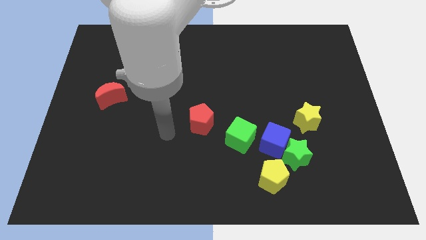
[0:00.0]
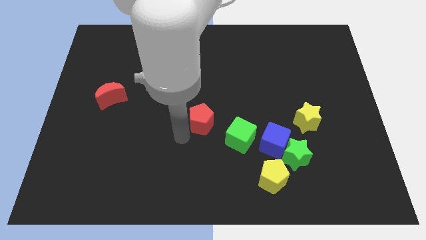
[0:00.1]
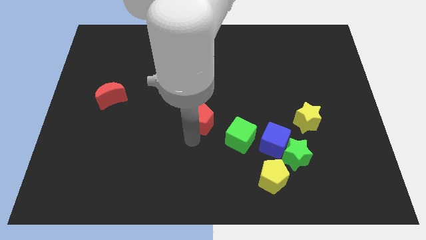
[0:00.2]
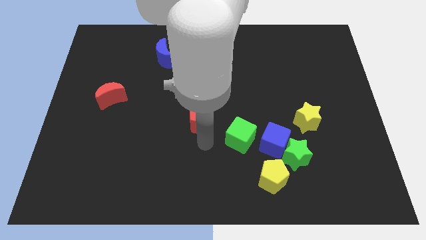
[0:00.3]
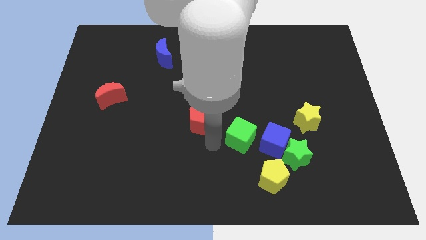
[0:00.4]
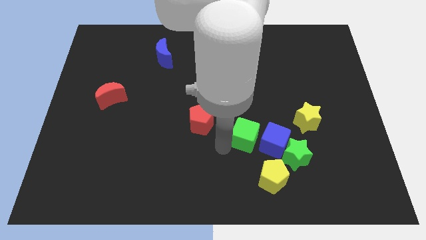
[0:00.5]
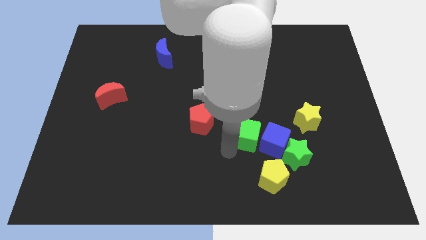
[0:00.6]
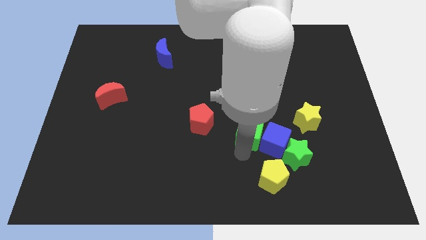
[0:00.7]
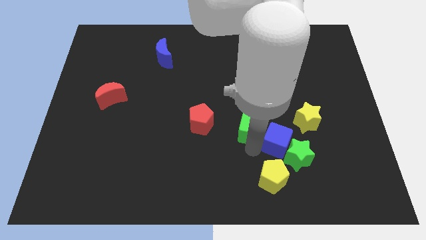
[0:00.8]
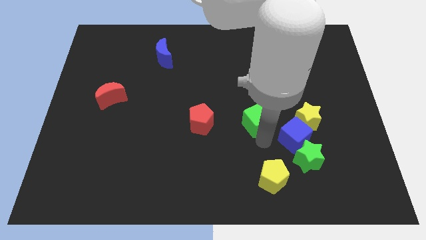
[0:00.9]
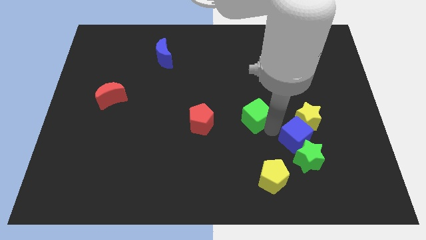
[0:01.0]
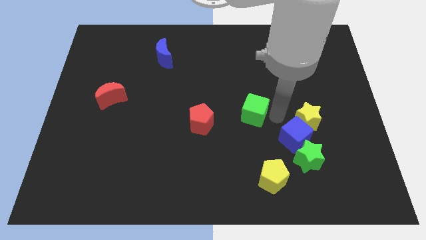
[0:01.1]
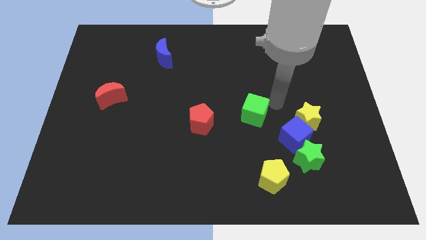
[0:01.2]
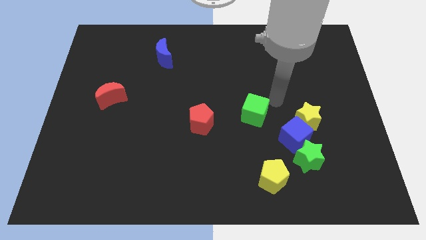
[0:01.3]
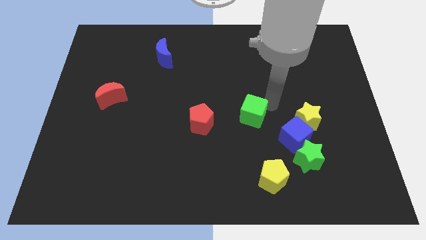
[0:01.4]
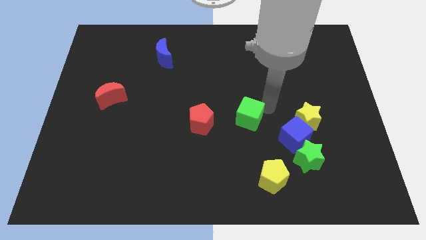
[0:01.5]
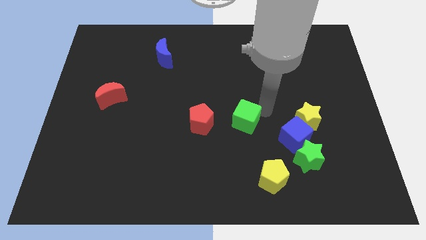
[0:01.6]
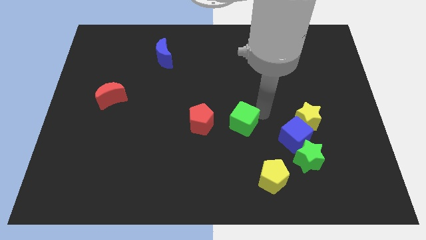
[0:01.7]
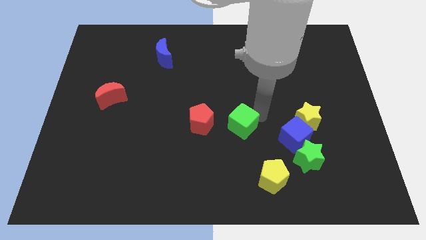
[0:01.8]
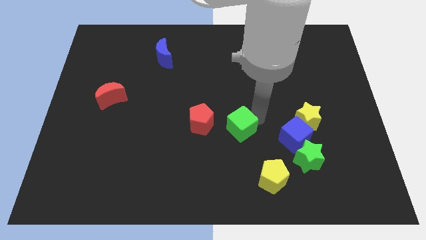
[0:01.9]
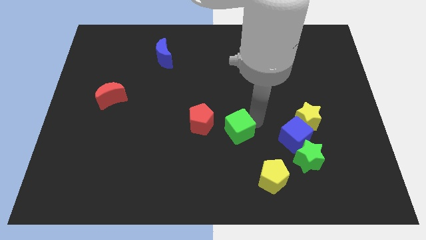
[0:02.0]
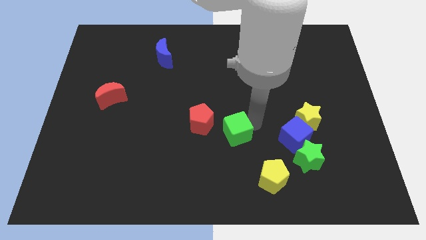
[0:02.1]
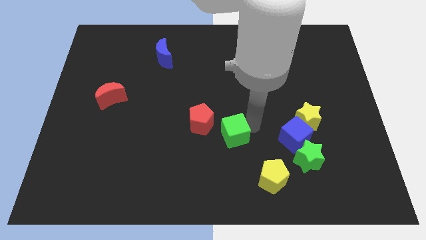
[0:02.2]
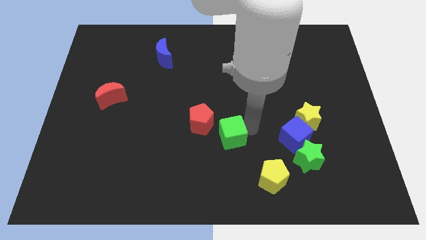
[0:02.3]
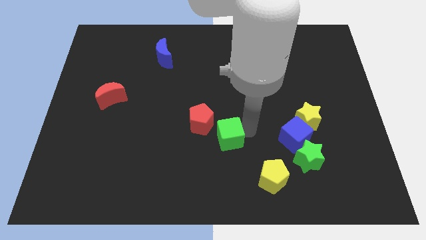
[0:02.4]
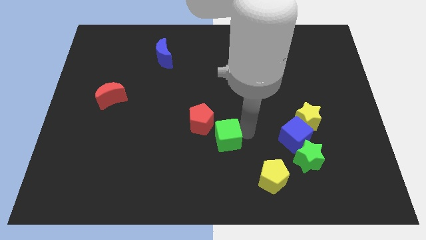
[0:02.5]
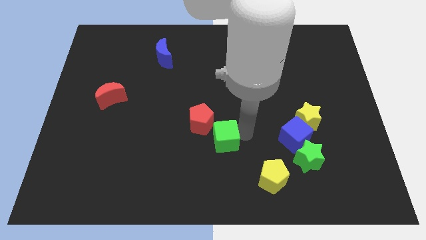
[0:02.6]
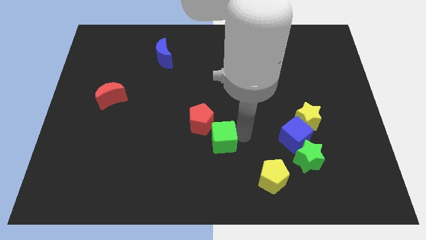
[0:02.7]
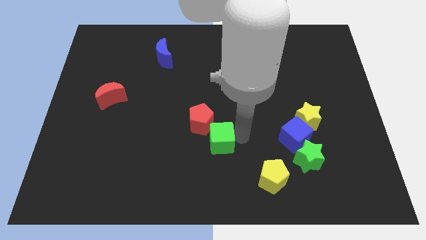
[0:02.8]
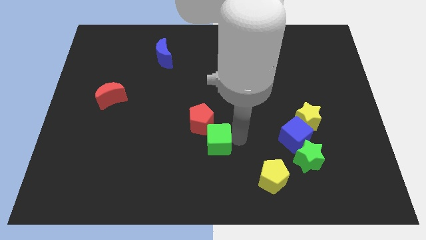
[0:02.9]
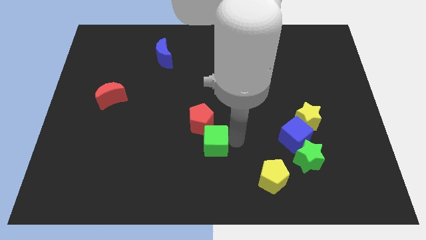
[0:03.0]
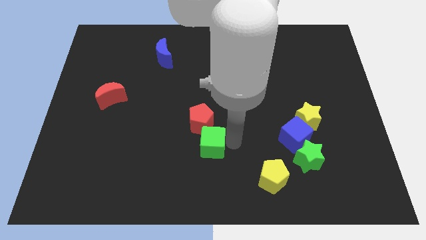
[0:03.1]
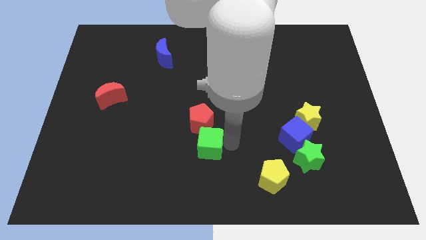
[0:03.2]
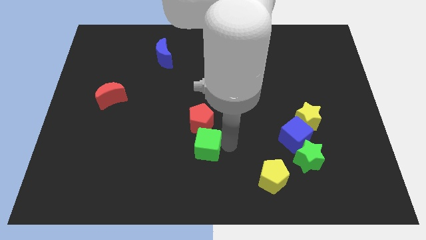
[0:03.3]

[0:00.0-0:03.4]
slightly move the green cube left

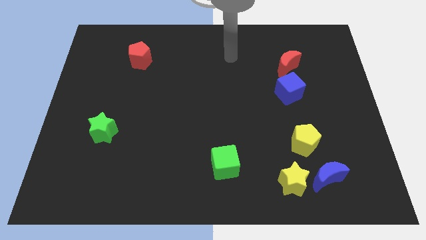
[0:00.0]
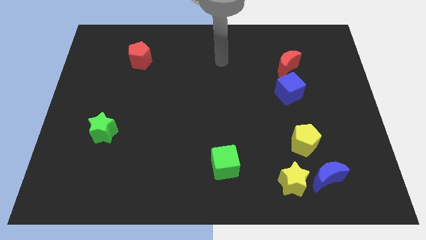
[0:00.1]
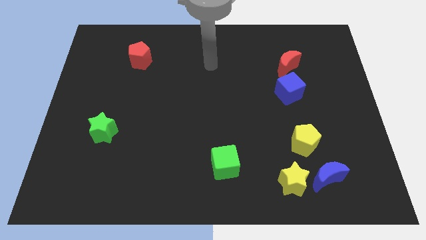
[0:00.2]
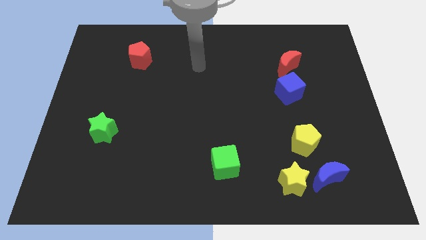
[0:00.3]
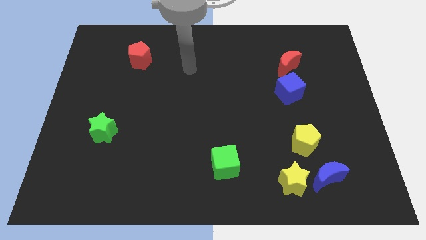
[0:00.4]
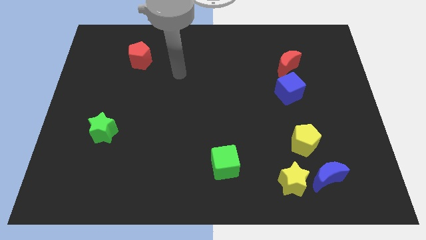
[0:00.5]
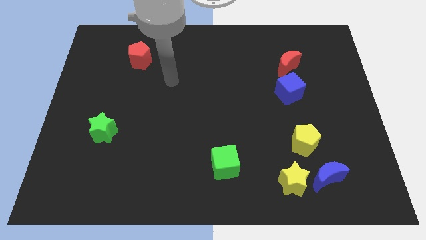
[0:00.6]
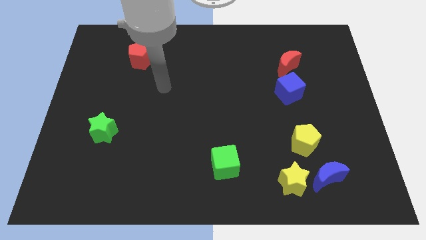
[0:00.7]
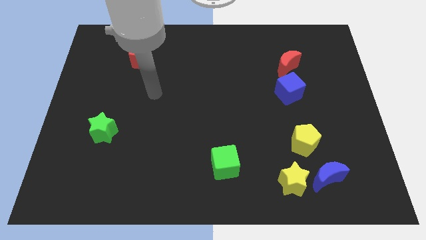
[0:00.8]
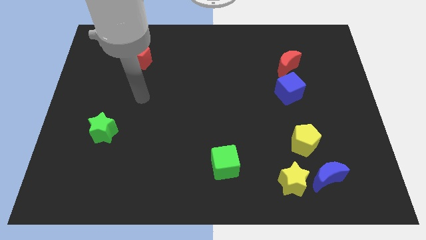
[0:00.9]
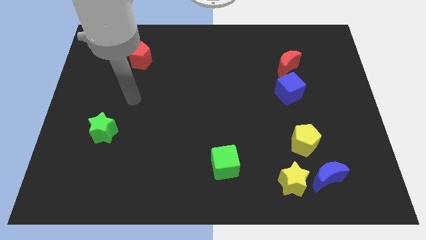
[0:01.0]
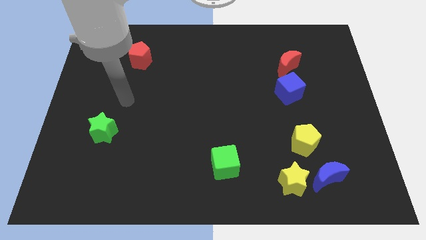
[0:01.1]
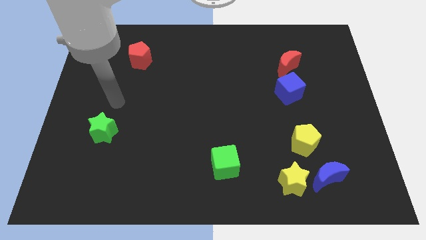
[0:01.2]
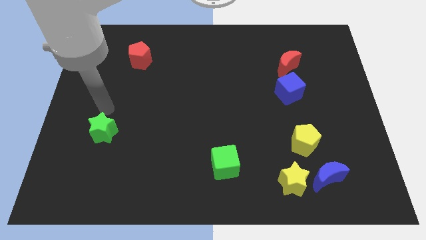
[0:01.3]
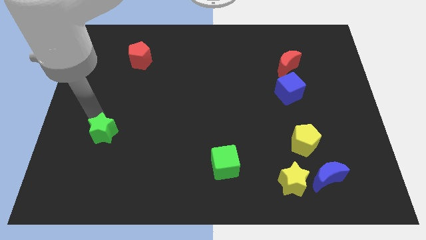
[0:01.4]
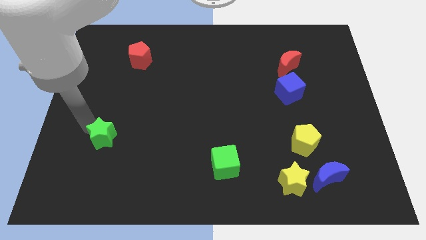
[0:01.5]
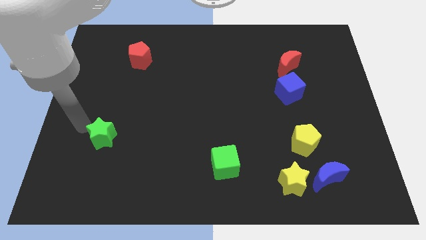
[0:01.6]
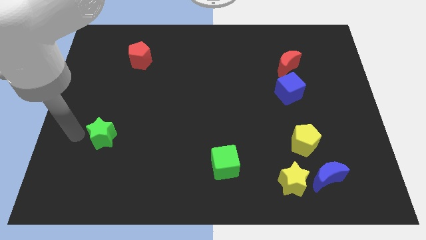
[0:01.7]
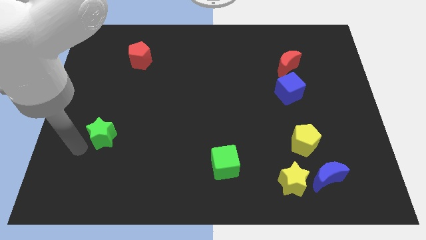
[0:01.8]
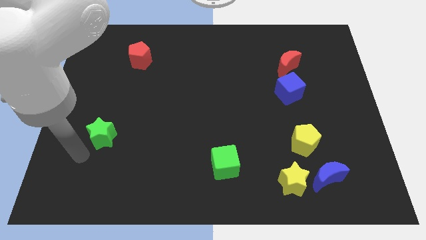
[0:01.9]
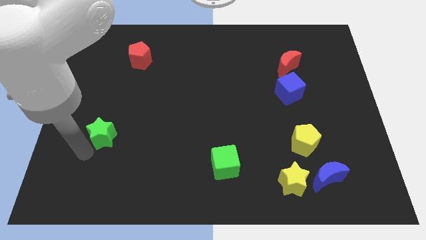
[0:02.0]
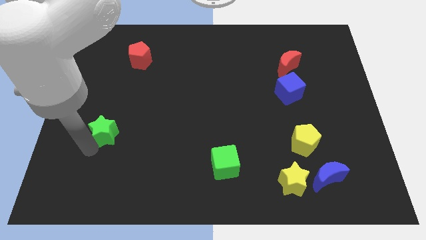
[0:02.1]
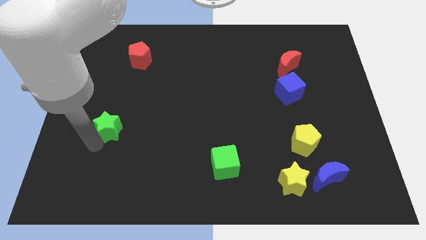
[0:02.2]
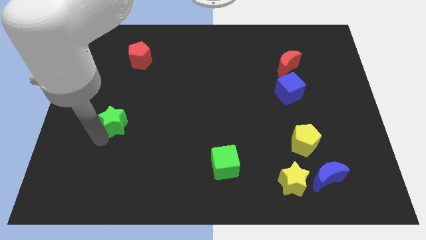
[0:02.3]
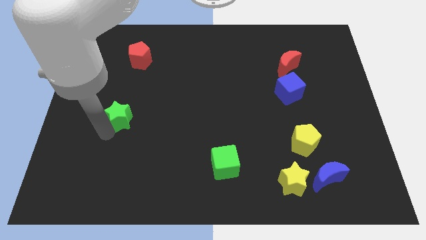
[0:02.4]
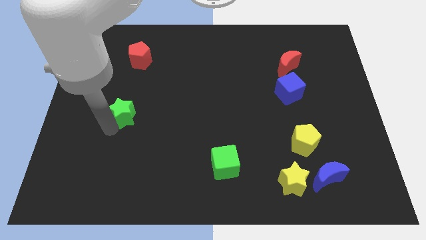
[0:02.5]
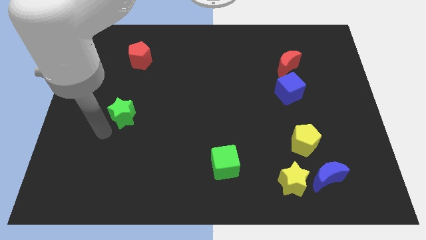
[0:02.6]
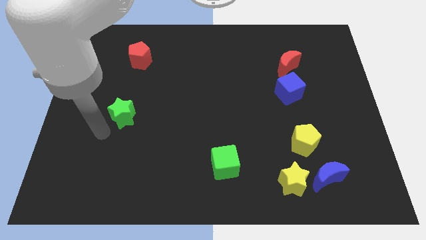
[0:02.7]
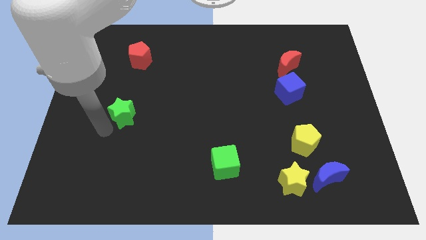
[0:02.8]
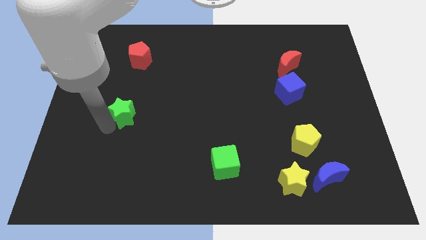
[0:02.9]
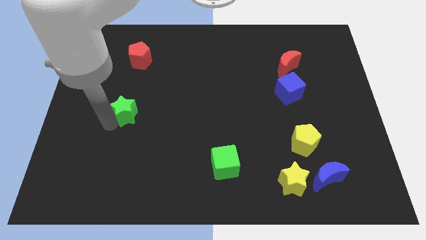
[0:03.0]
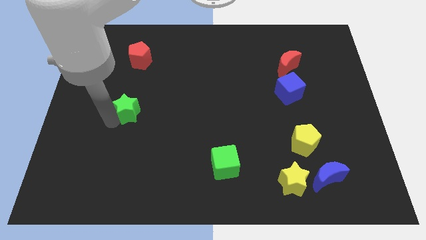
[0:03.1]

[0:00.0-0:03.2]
push the green star up and then right a little

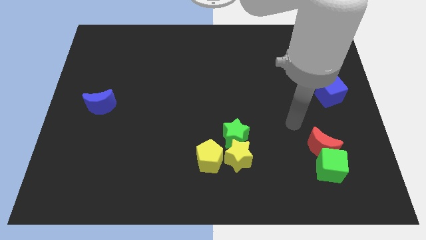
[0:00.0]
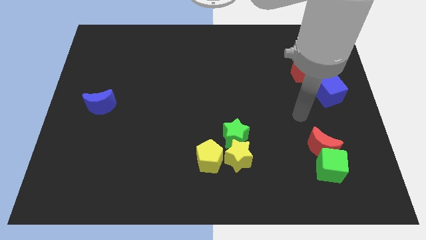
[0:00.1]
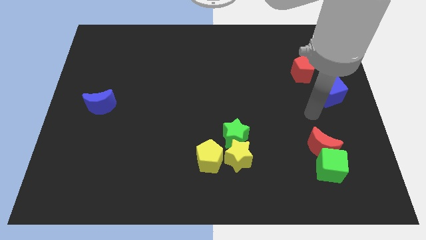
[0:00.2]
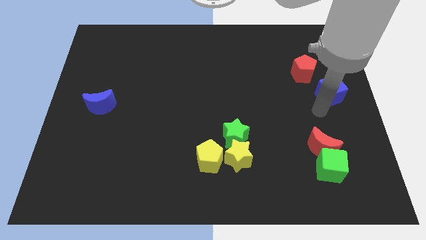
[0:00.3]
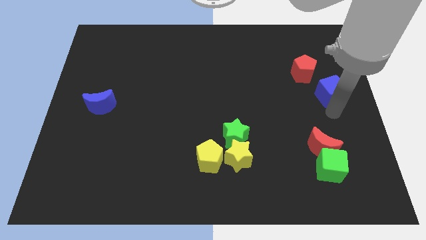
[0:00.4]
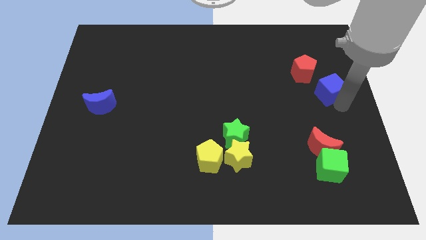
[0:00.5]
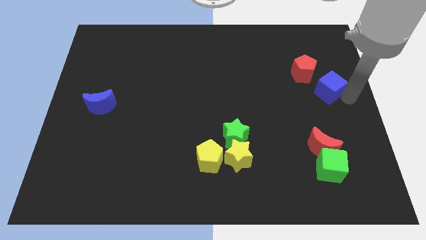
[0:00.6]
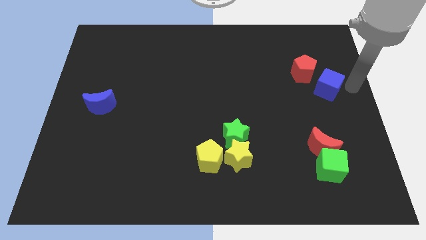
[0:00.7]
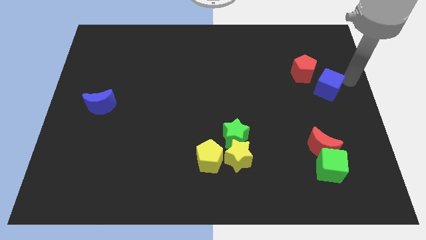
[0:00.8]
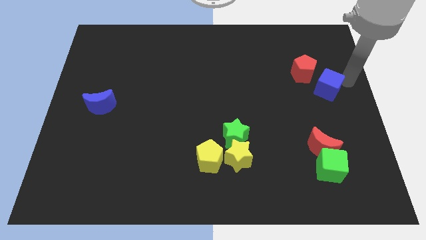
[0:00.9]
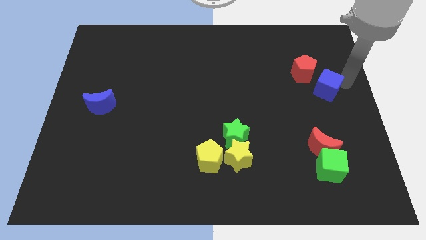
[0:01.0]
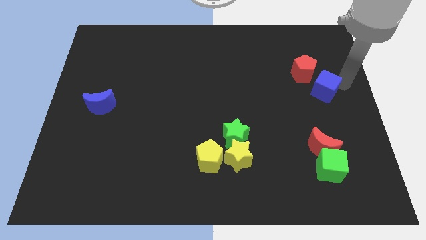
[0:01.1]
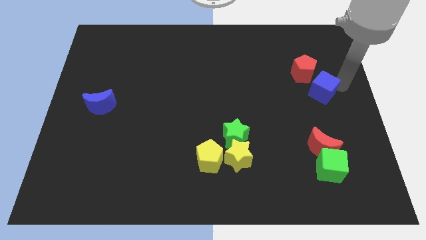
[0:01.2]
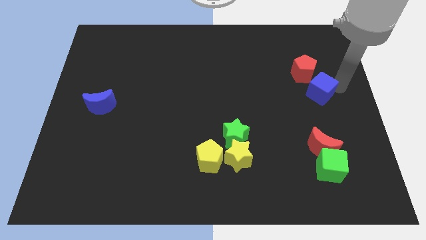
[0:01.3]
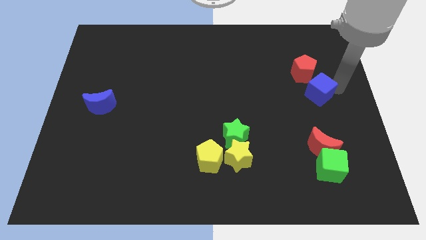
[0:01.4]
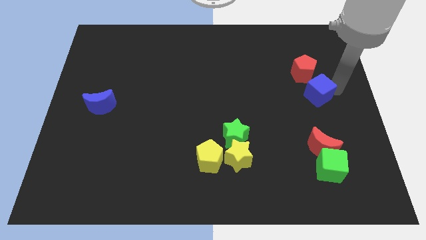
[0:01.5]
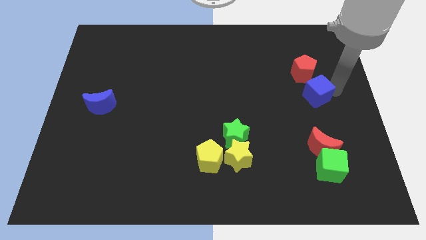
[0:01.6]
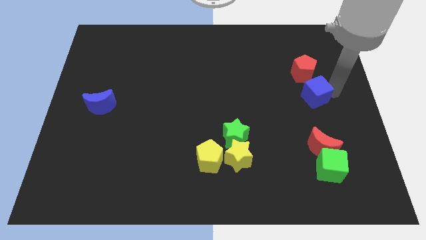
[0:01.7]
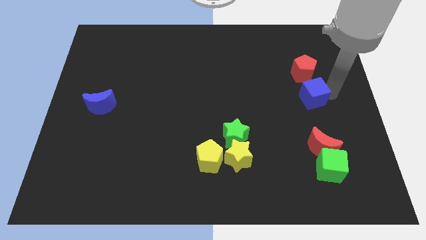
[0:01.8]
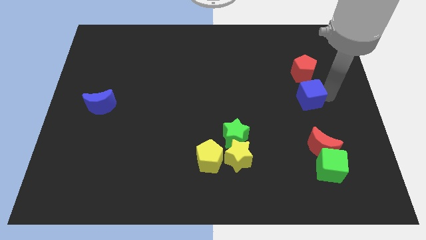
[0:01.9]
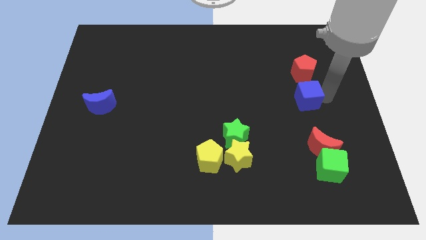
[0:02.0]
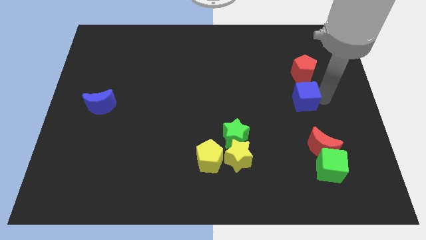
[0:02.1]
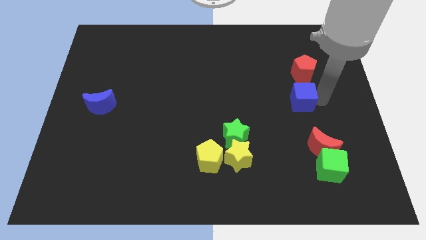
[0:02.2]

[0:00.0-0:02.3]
push the blue cube slightly to the left
